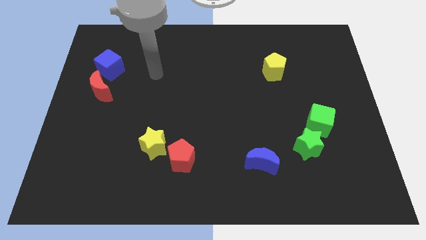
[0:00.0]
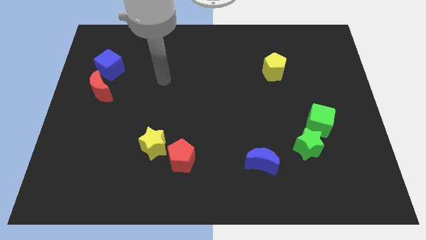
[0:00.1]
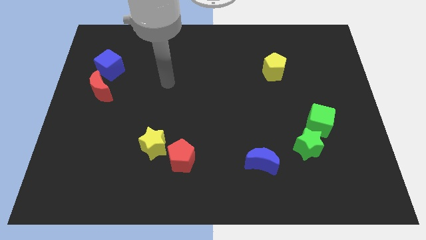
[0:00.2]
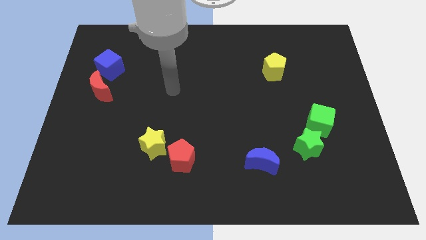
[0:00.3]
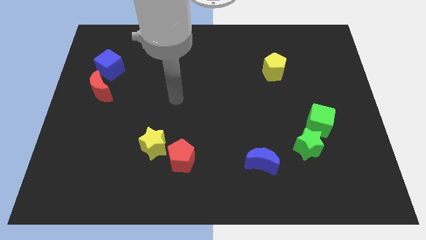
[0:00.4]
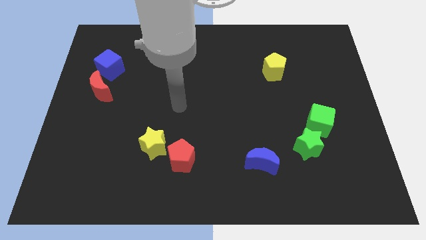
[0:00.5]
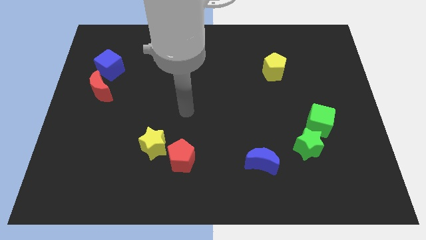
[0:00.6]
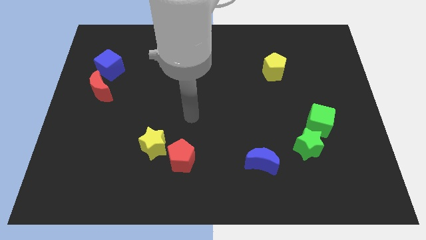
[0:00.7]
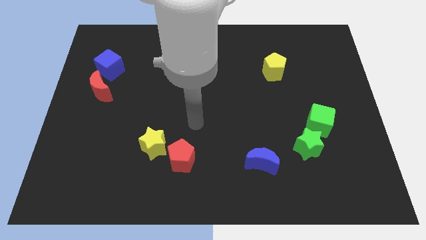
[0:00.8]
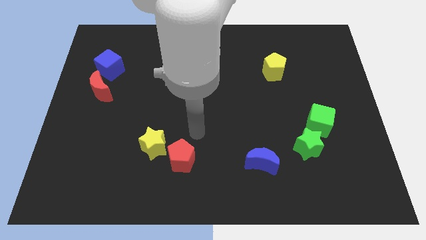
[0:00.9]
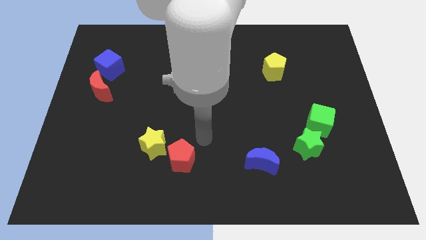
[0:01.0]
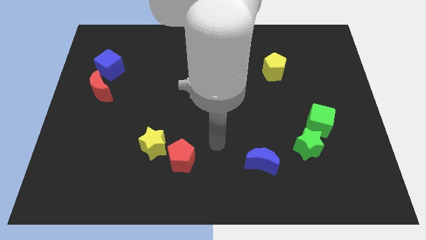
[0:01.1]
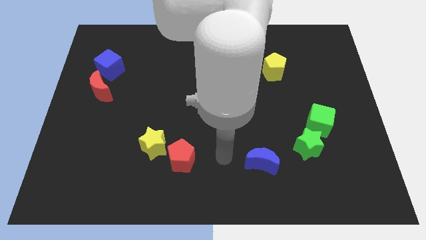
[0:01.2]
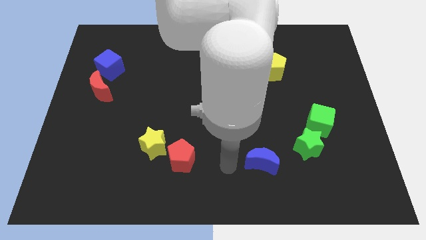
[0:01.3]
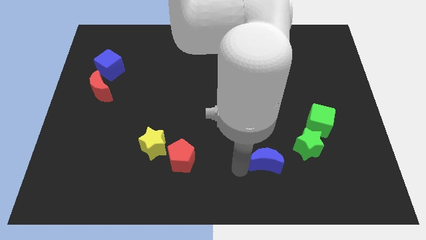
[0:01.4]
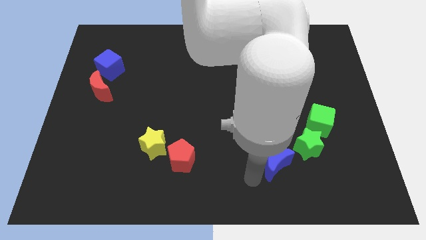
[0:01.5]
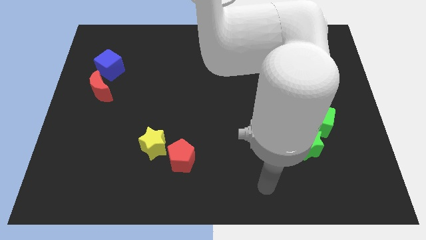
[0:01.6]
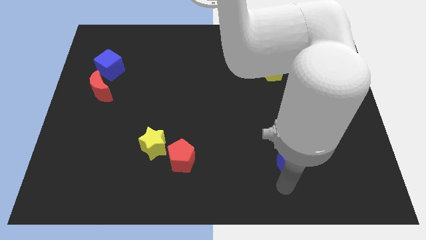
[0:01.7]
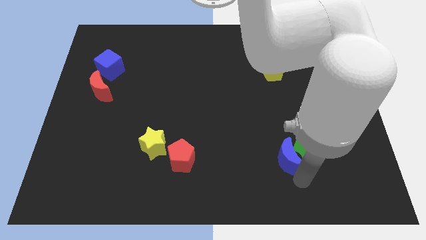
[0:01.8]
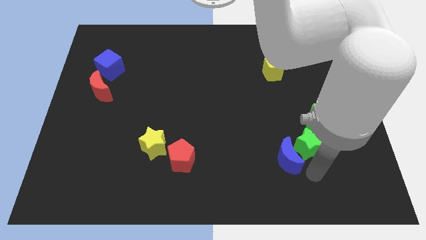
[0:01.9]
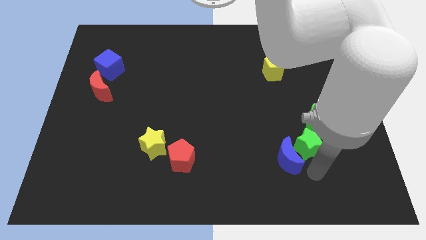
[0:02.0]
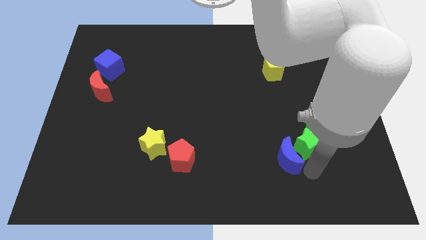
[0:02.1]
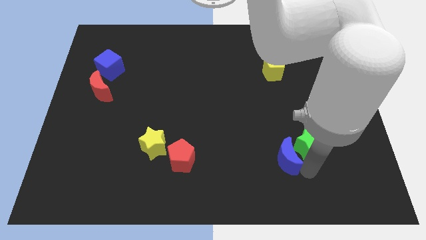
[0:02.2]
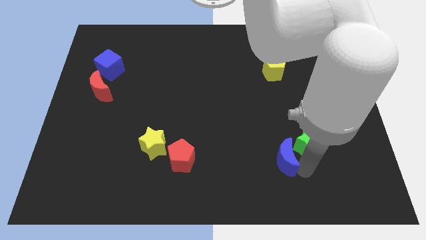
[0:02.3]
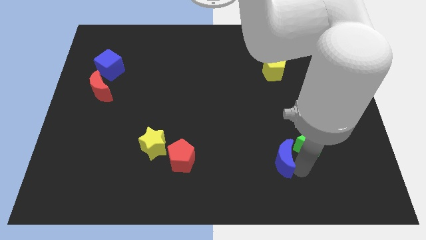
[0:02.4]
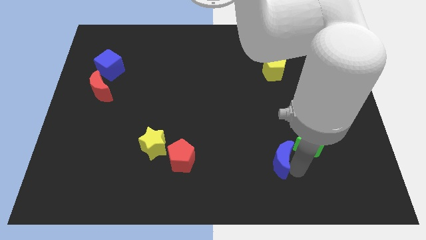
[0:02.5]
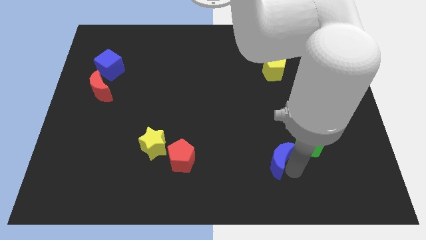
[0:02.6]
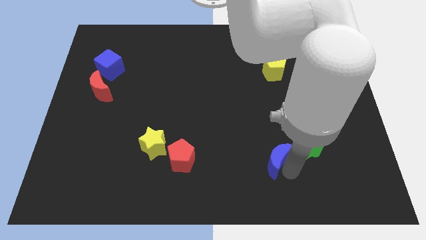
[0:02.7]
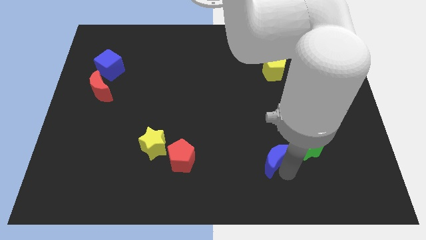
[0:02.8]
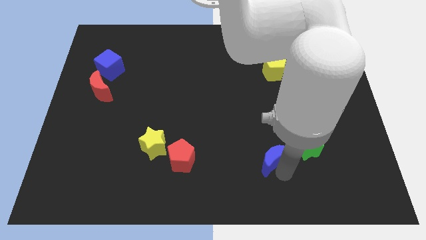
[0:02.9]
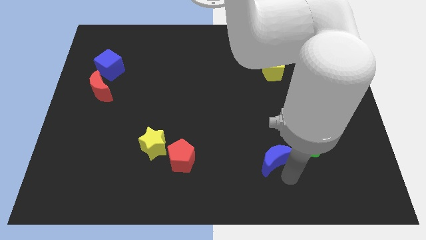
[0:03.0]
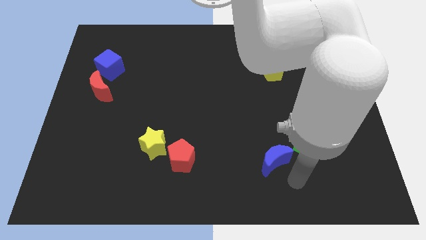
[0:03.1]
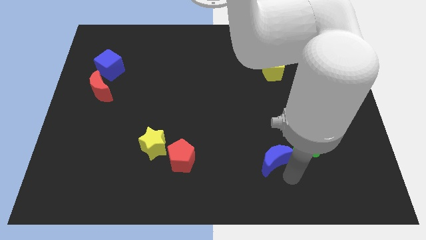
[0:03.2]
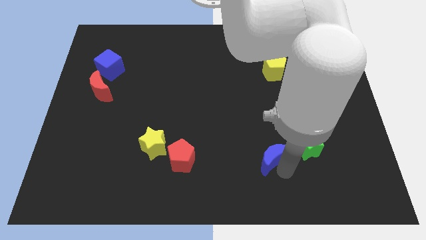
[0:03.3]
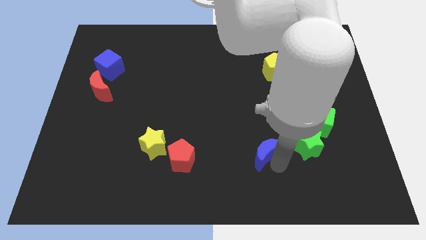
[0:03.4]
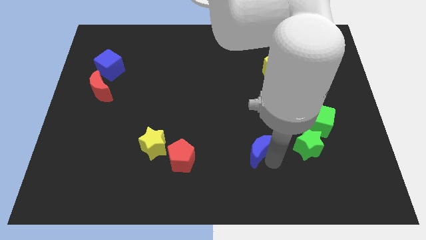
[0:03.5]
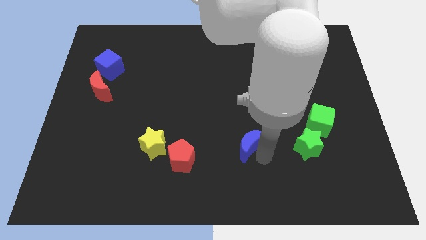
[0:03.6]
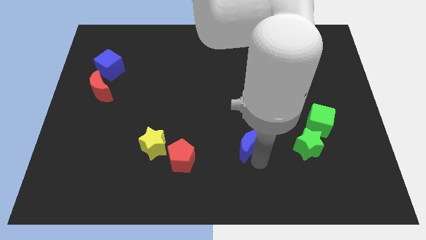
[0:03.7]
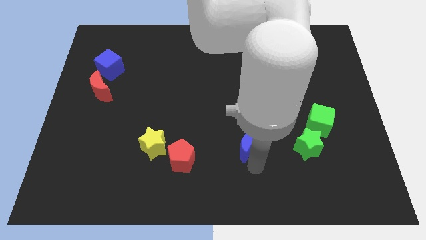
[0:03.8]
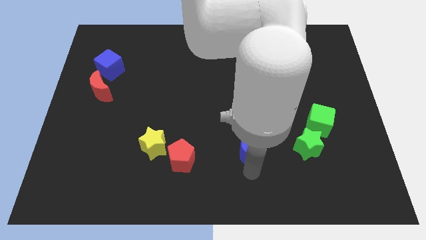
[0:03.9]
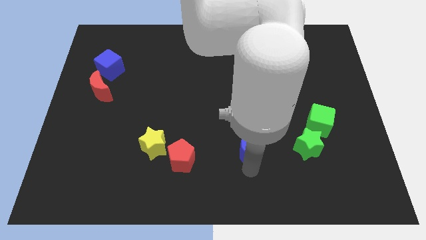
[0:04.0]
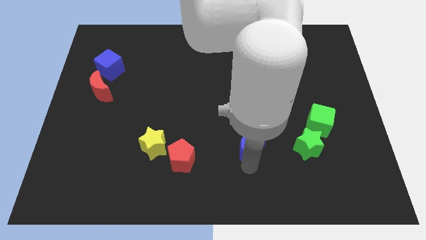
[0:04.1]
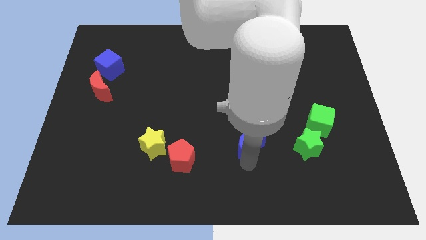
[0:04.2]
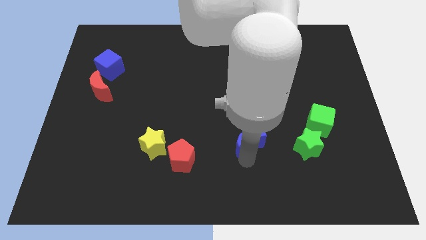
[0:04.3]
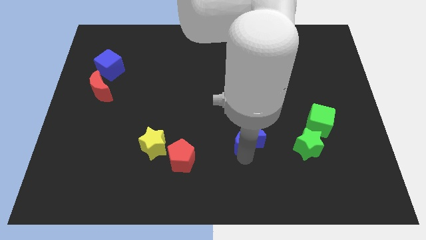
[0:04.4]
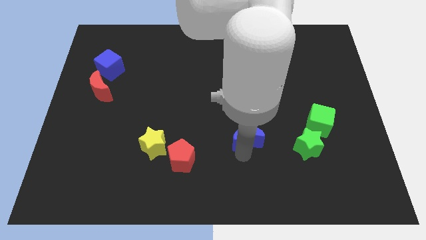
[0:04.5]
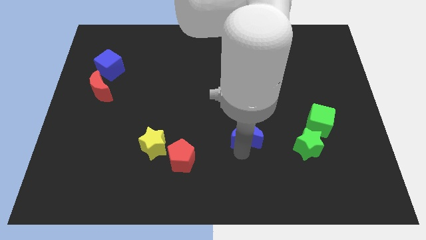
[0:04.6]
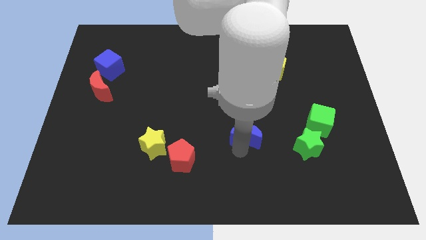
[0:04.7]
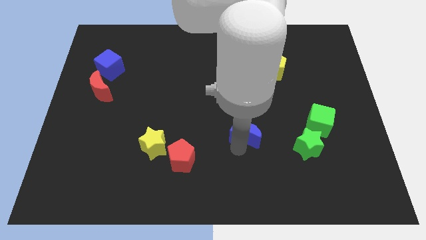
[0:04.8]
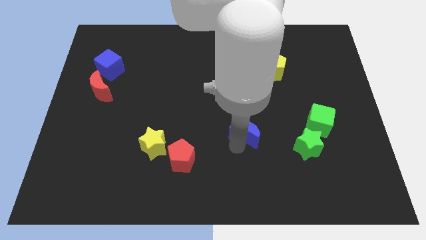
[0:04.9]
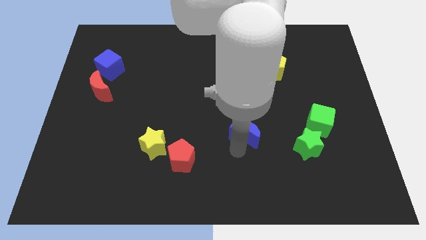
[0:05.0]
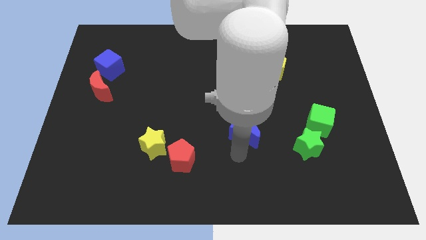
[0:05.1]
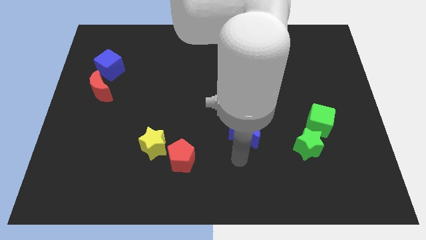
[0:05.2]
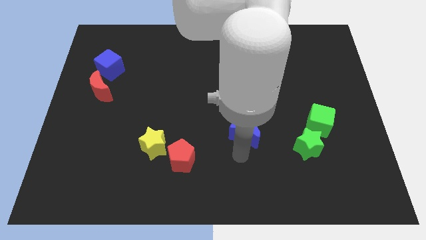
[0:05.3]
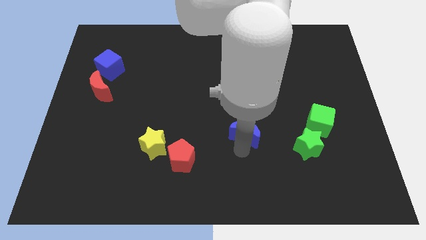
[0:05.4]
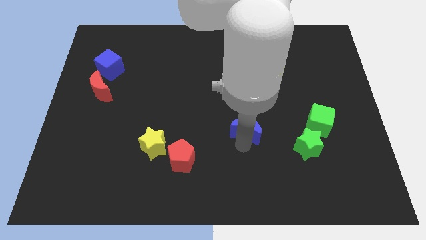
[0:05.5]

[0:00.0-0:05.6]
move the blue moon slightly upwards

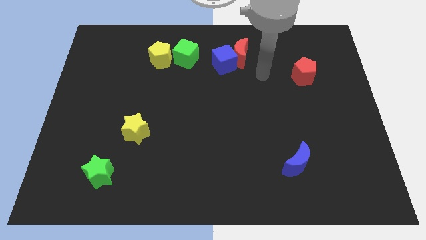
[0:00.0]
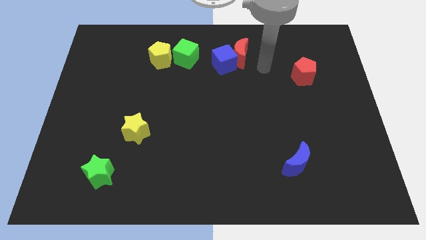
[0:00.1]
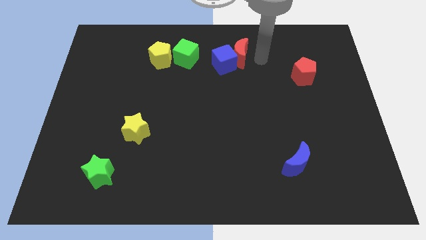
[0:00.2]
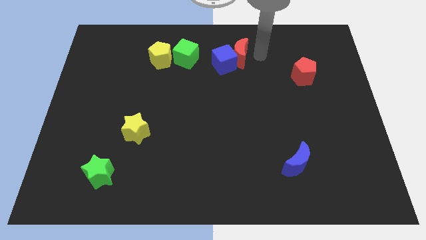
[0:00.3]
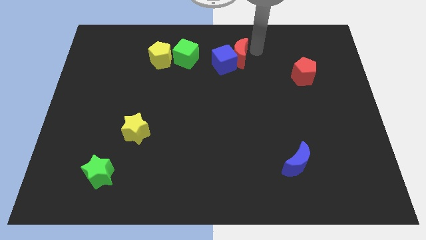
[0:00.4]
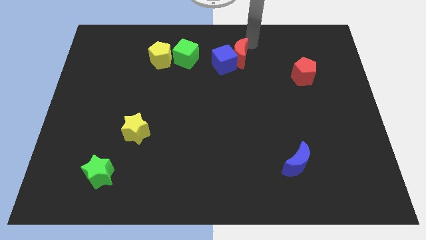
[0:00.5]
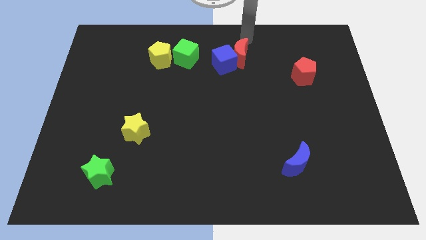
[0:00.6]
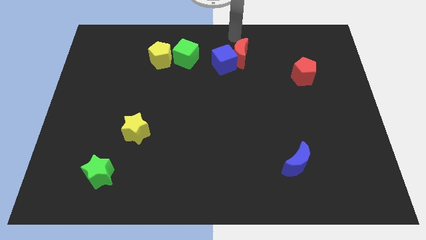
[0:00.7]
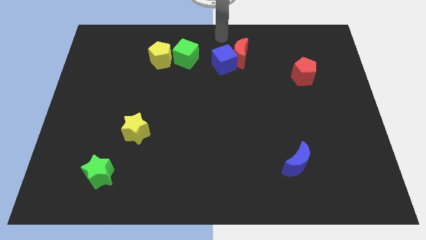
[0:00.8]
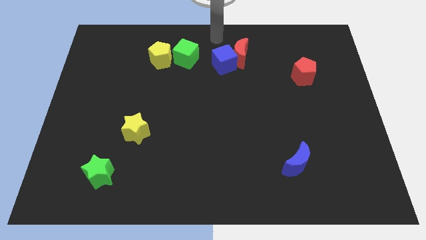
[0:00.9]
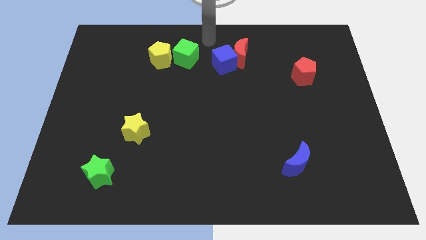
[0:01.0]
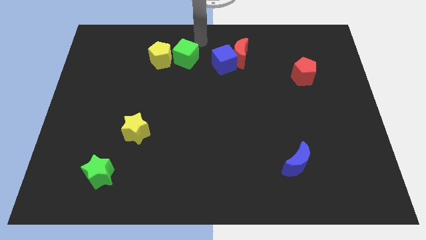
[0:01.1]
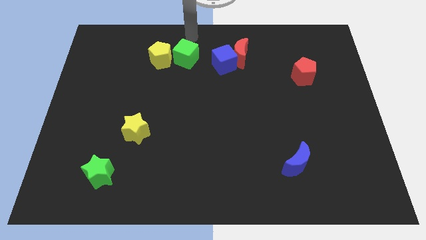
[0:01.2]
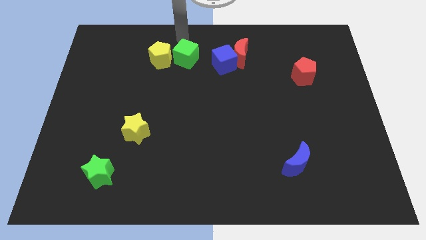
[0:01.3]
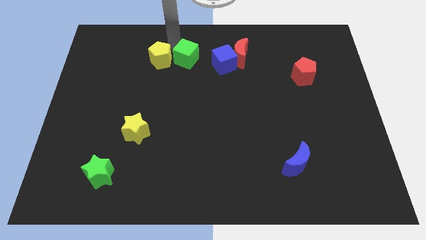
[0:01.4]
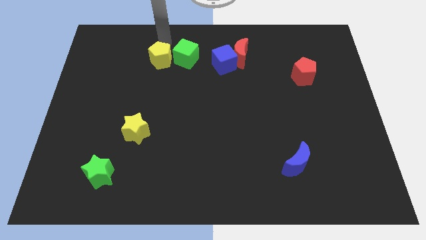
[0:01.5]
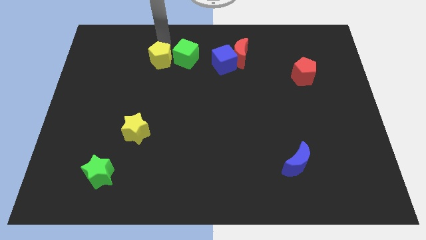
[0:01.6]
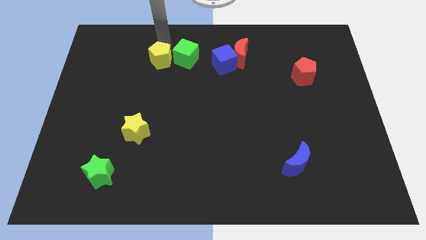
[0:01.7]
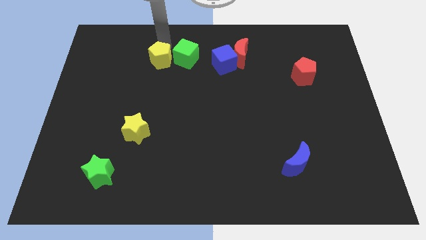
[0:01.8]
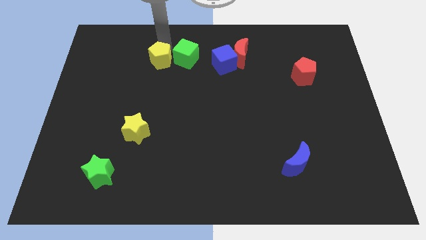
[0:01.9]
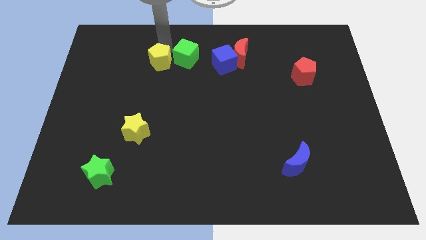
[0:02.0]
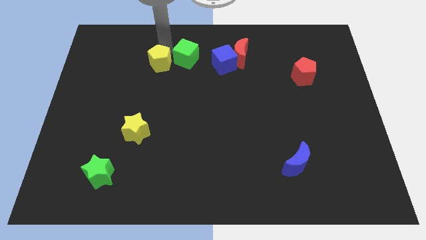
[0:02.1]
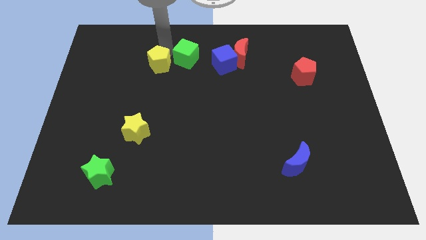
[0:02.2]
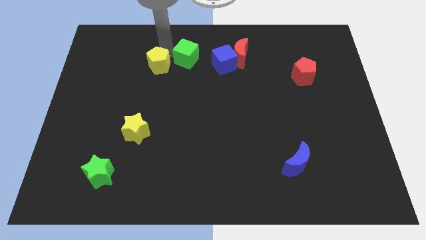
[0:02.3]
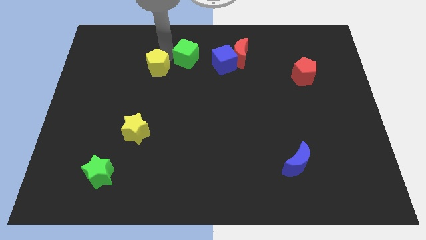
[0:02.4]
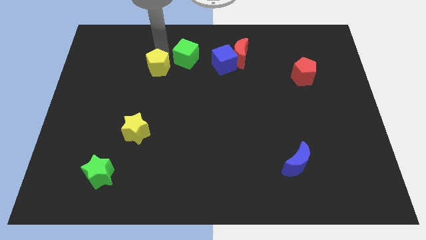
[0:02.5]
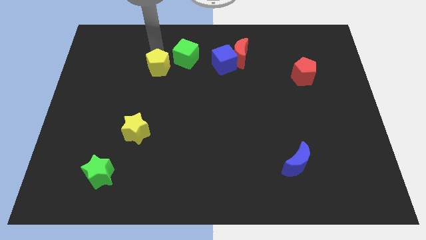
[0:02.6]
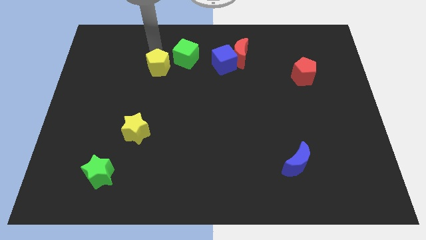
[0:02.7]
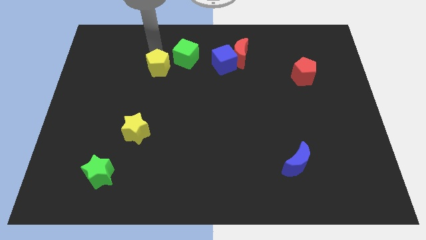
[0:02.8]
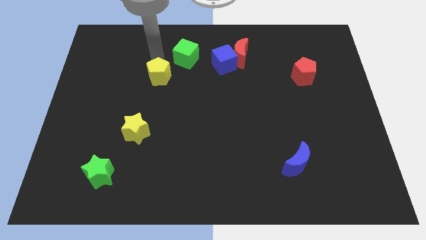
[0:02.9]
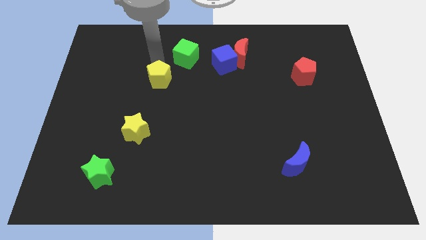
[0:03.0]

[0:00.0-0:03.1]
push the yellow pentagon slightly down
